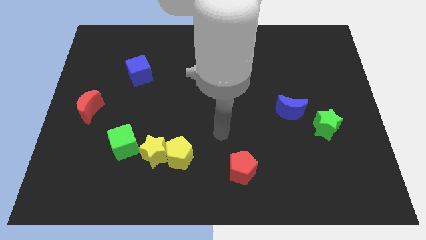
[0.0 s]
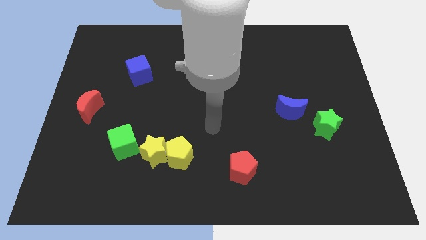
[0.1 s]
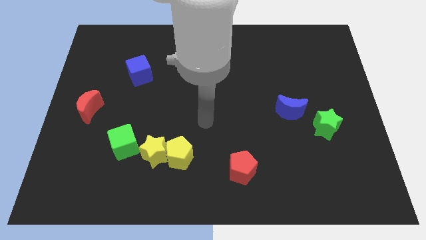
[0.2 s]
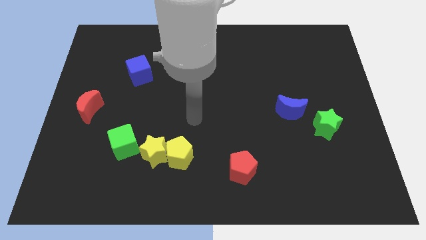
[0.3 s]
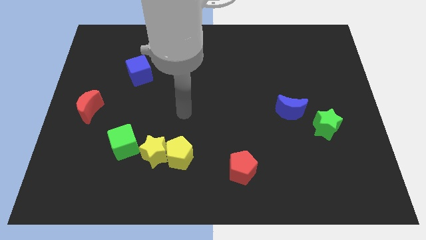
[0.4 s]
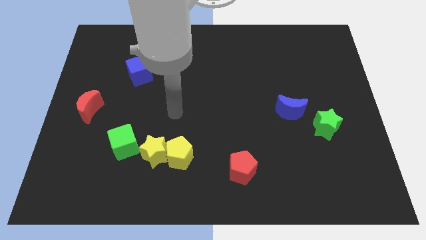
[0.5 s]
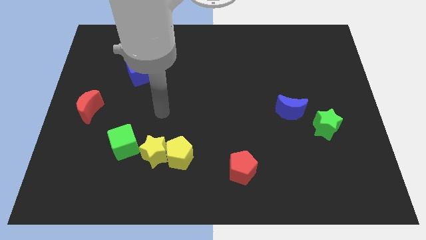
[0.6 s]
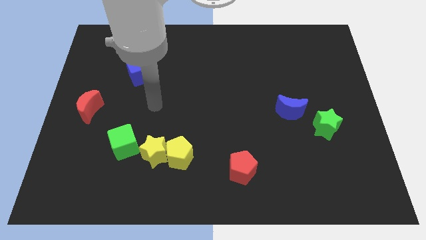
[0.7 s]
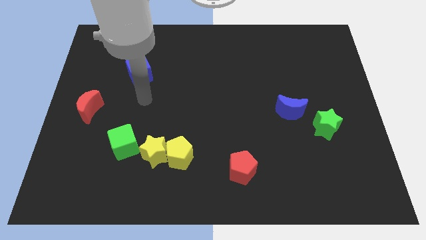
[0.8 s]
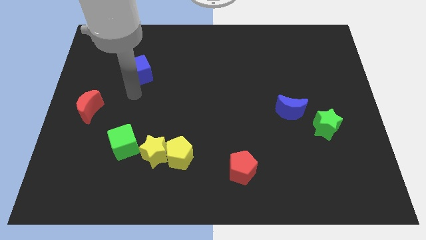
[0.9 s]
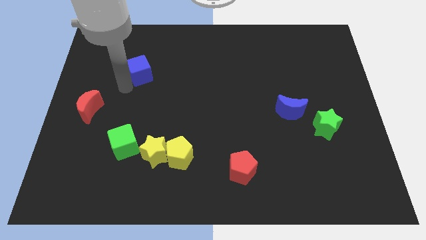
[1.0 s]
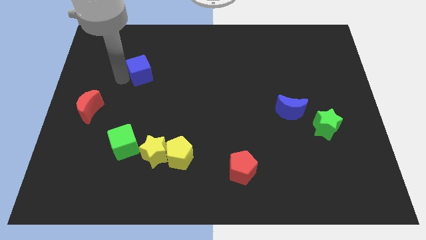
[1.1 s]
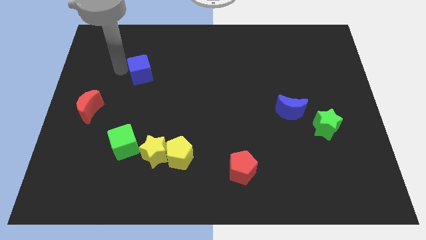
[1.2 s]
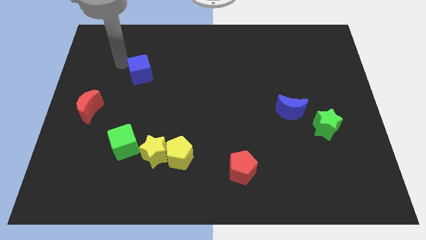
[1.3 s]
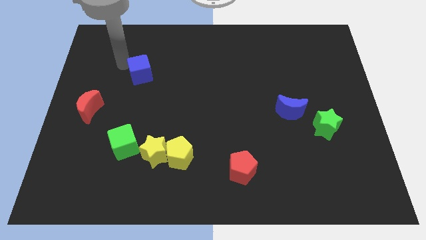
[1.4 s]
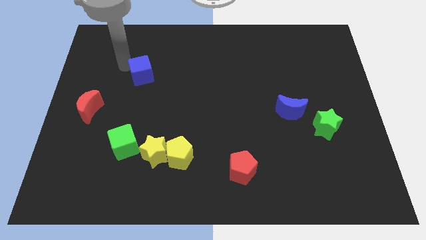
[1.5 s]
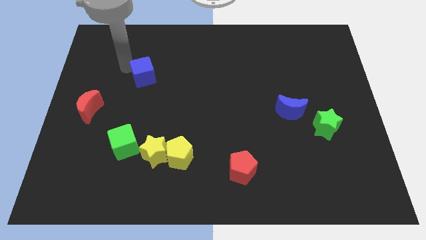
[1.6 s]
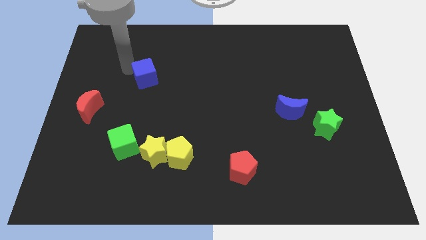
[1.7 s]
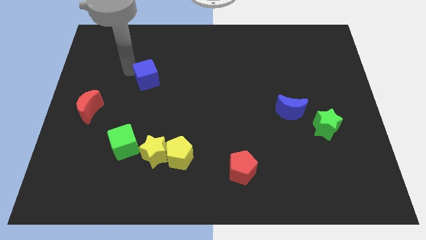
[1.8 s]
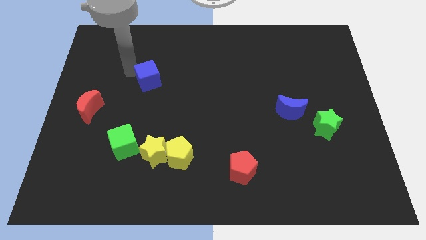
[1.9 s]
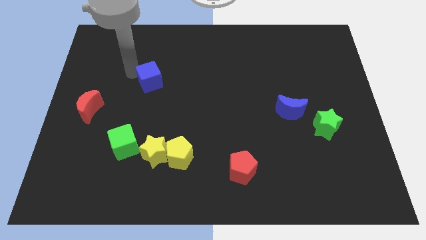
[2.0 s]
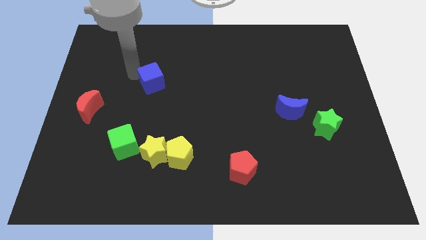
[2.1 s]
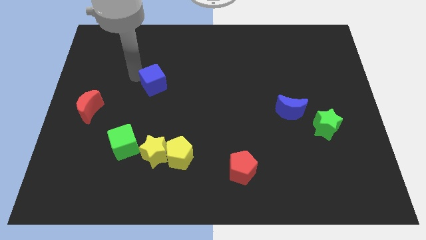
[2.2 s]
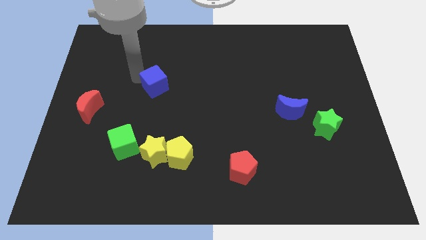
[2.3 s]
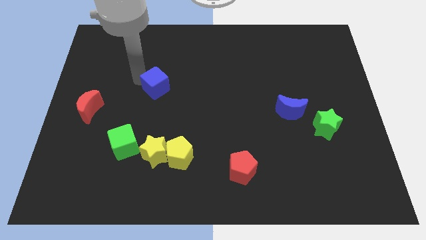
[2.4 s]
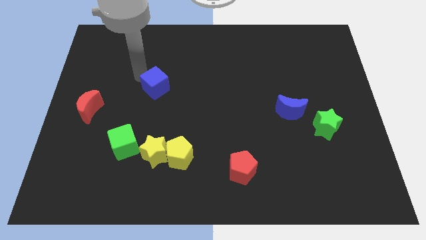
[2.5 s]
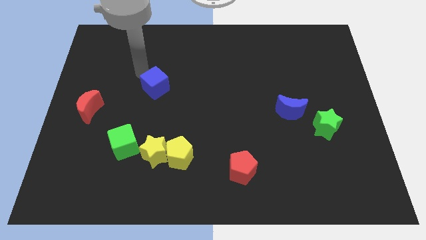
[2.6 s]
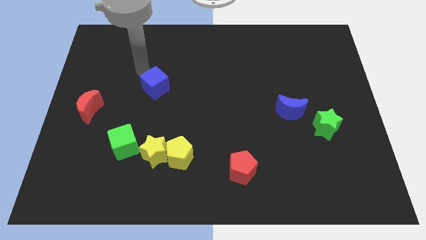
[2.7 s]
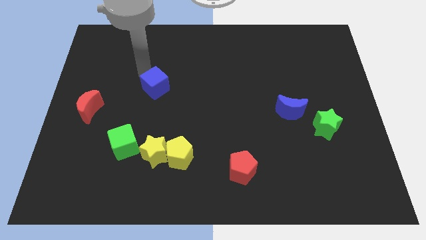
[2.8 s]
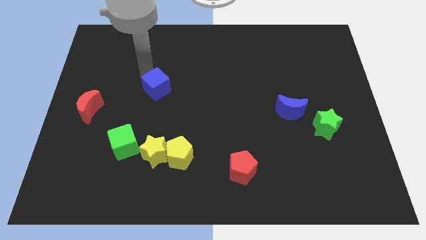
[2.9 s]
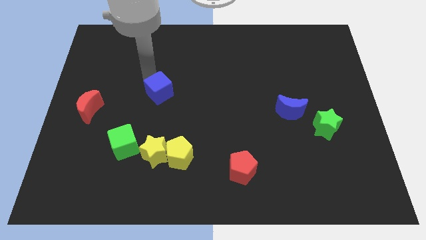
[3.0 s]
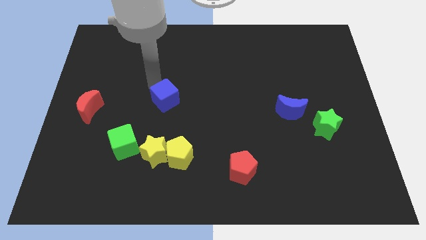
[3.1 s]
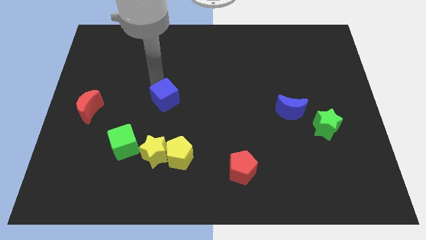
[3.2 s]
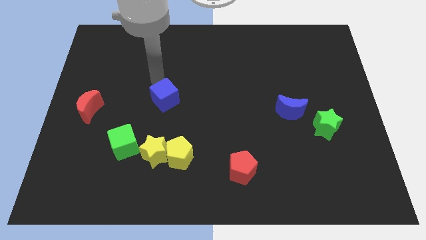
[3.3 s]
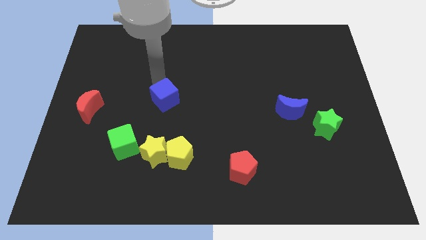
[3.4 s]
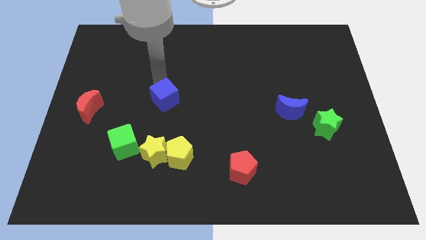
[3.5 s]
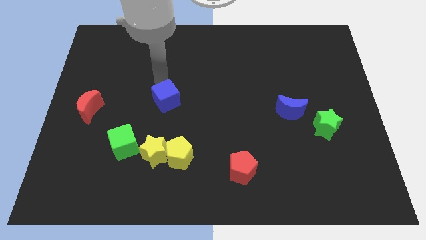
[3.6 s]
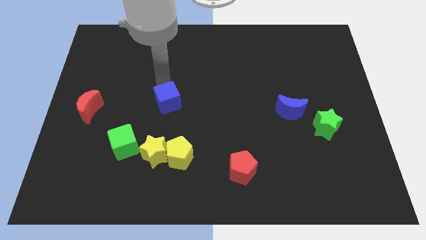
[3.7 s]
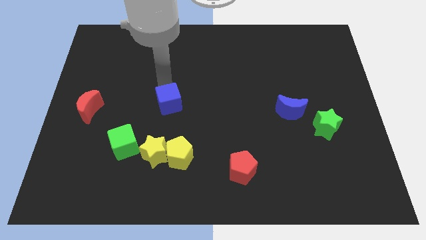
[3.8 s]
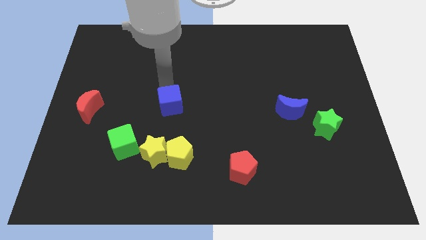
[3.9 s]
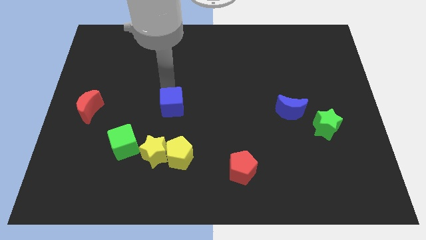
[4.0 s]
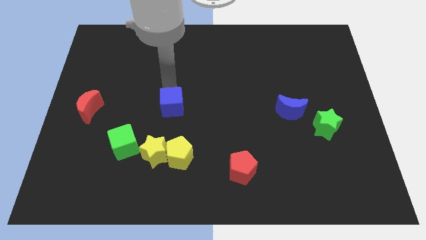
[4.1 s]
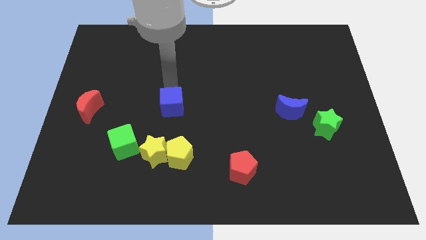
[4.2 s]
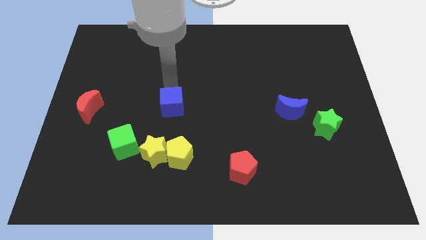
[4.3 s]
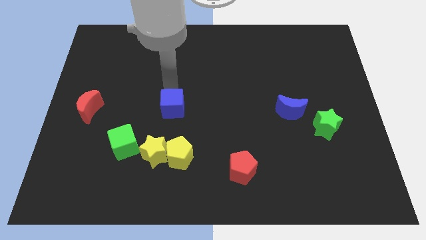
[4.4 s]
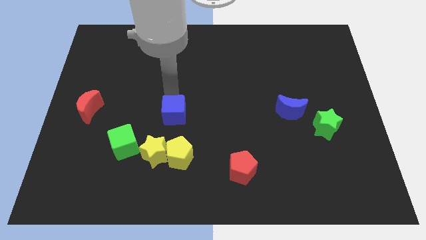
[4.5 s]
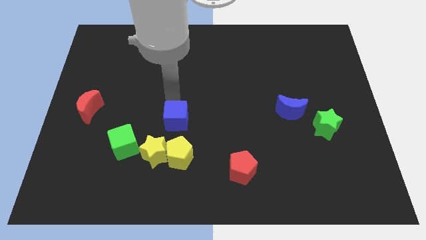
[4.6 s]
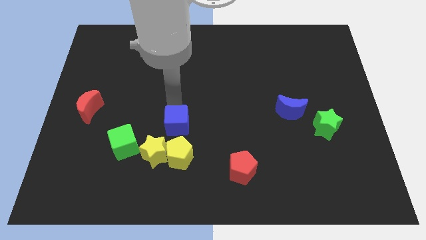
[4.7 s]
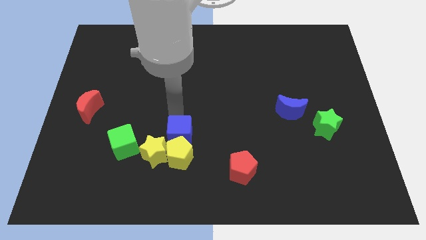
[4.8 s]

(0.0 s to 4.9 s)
move the blue cube close to the yellow pentagon

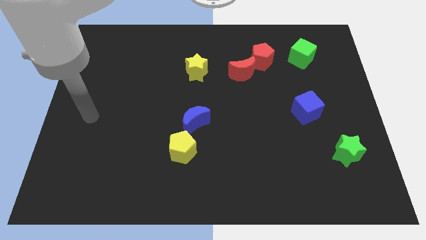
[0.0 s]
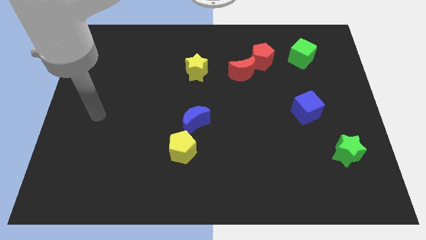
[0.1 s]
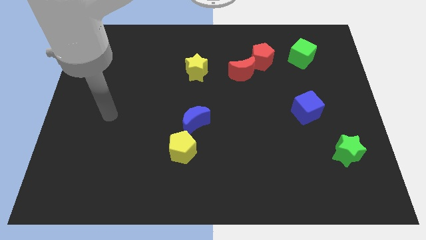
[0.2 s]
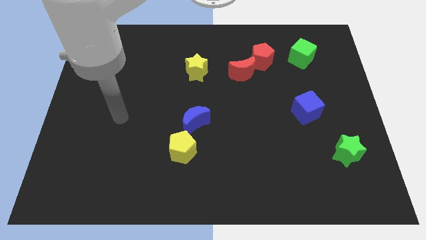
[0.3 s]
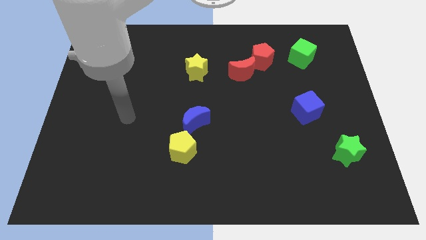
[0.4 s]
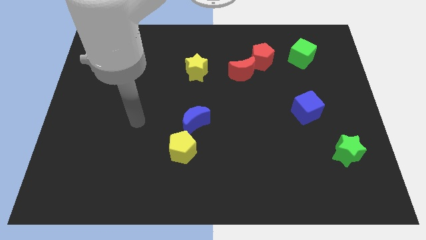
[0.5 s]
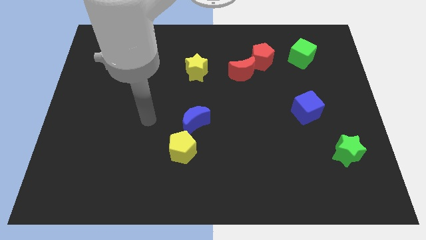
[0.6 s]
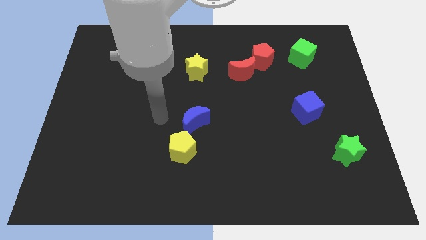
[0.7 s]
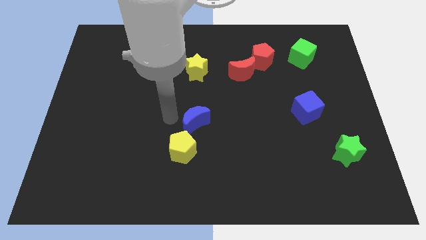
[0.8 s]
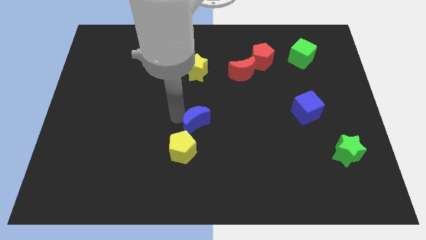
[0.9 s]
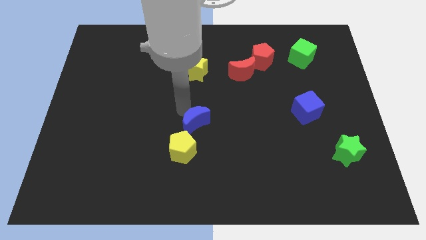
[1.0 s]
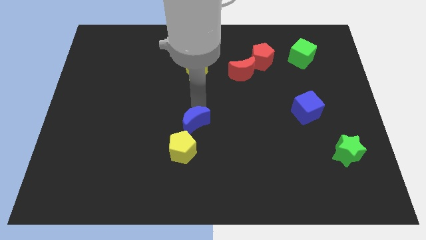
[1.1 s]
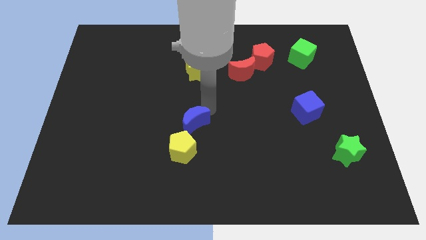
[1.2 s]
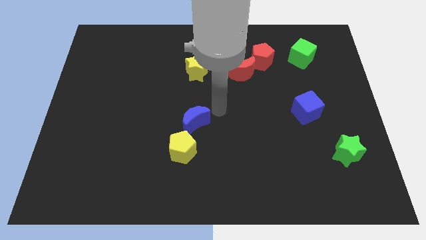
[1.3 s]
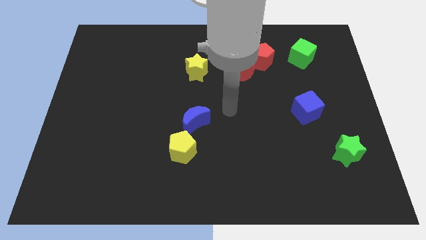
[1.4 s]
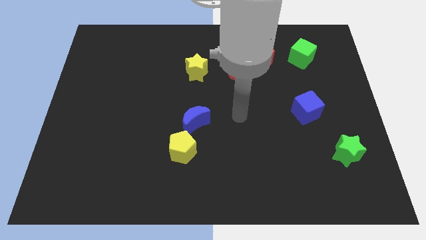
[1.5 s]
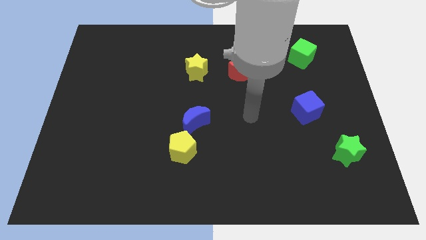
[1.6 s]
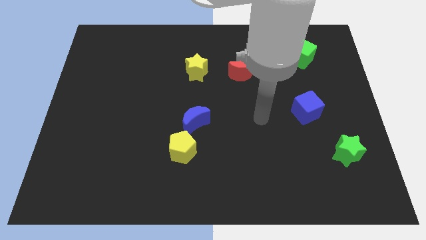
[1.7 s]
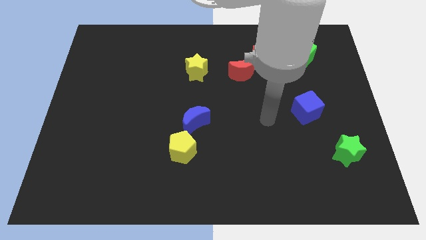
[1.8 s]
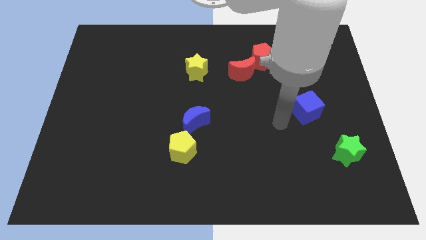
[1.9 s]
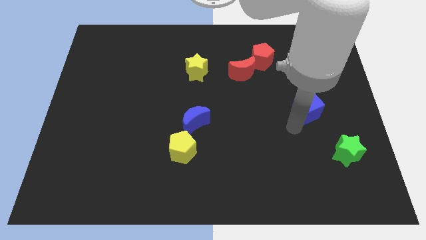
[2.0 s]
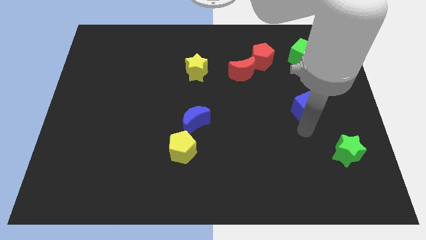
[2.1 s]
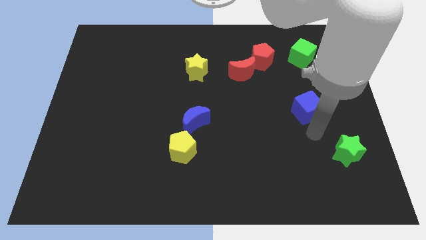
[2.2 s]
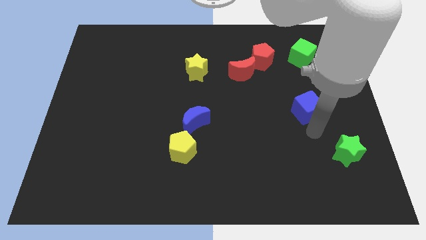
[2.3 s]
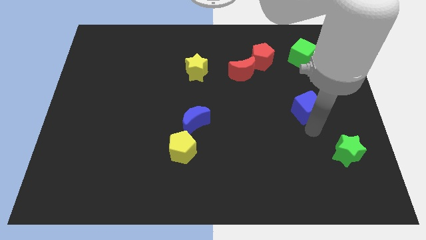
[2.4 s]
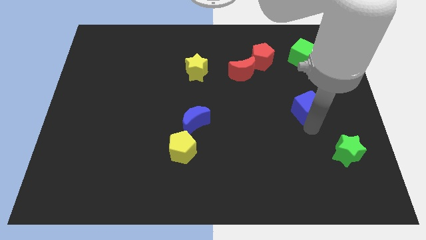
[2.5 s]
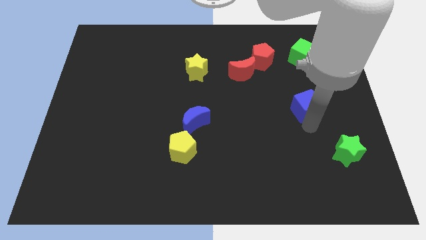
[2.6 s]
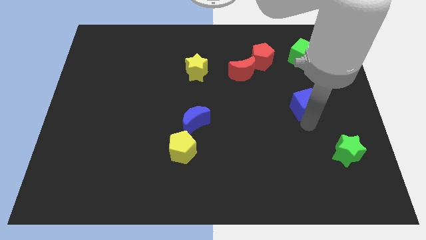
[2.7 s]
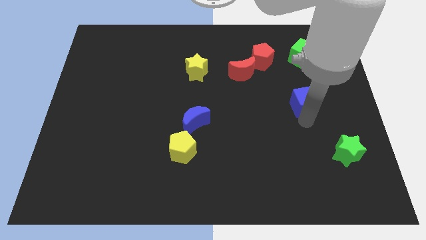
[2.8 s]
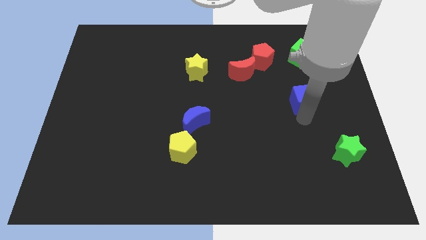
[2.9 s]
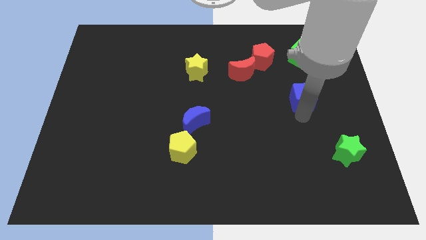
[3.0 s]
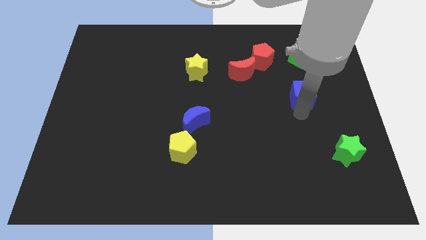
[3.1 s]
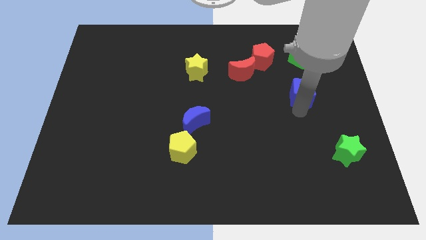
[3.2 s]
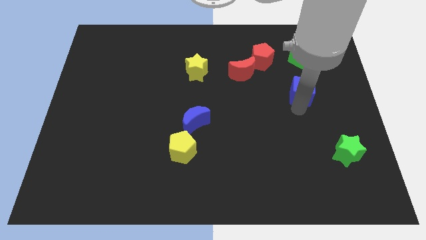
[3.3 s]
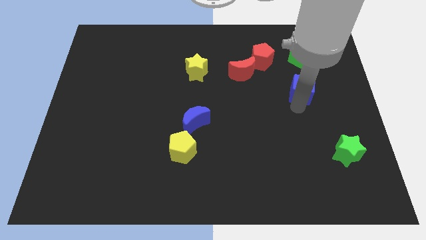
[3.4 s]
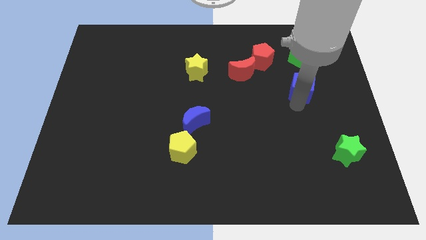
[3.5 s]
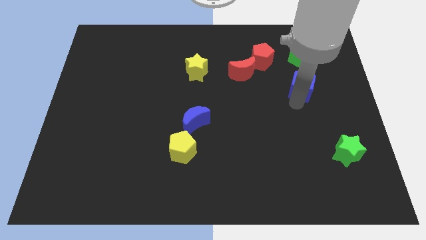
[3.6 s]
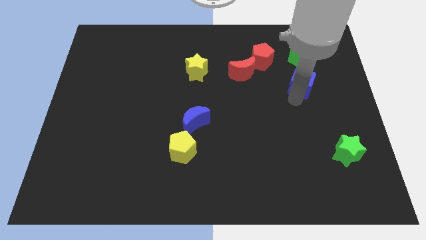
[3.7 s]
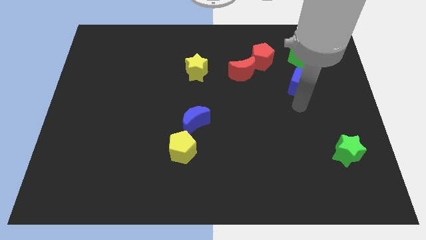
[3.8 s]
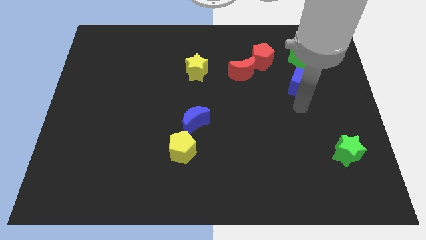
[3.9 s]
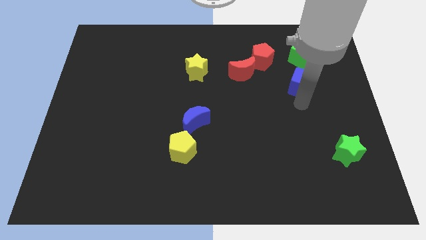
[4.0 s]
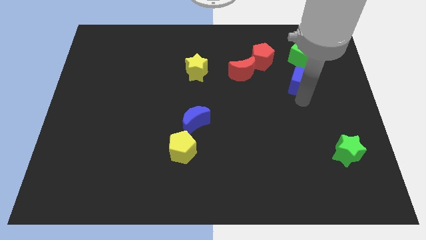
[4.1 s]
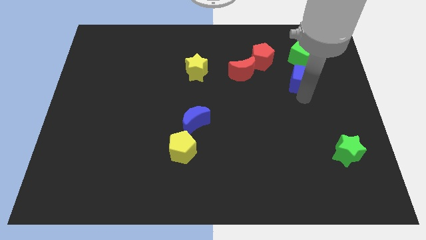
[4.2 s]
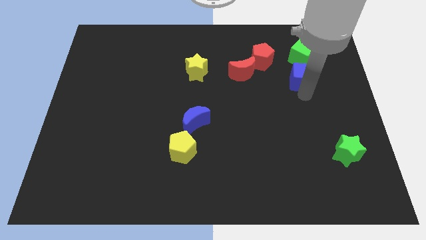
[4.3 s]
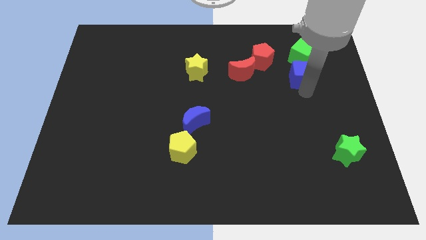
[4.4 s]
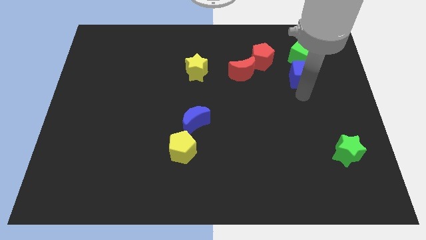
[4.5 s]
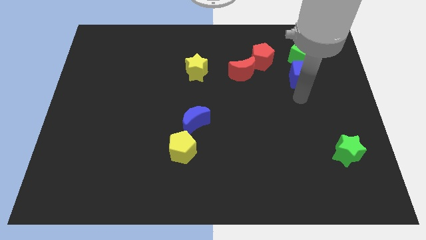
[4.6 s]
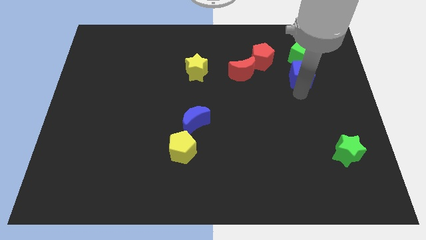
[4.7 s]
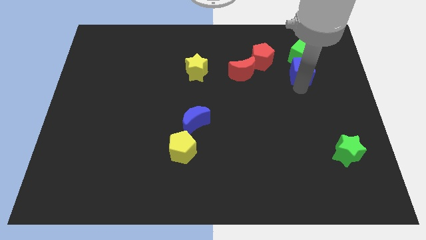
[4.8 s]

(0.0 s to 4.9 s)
put the blue cube to the green cube
